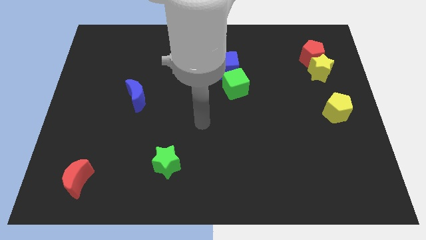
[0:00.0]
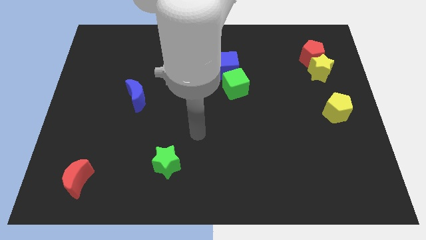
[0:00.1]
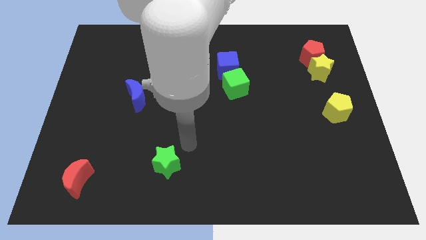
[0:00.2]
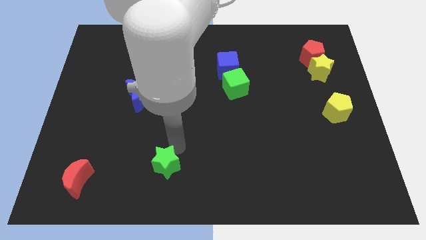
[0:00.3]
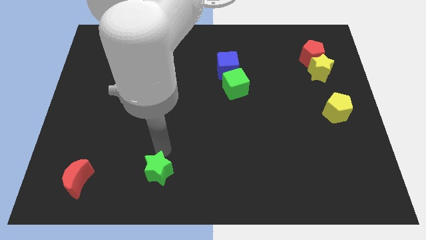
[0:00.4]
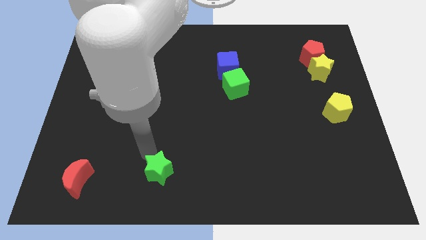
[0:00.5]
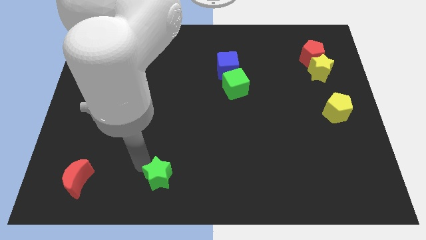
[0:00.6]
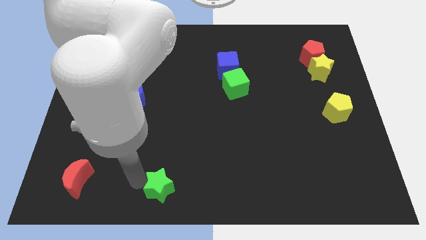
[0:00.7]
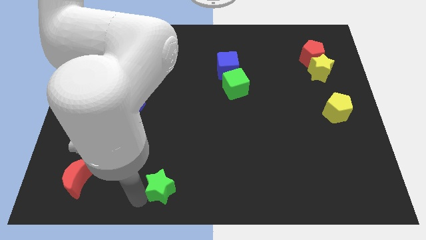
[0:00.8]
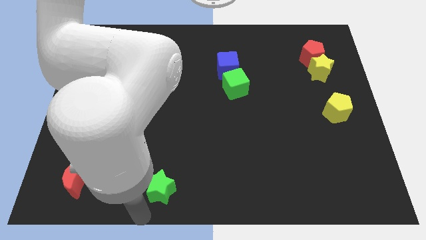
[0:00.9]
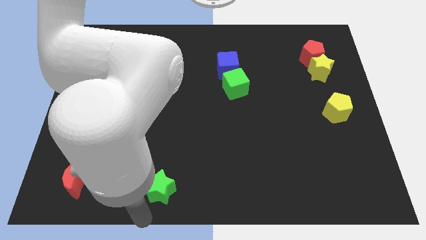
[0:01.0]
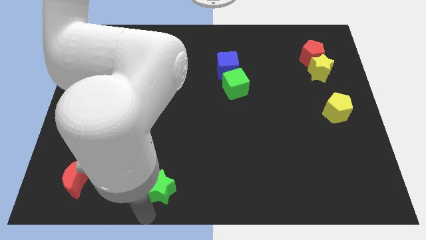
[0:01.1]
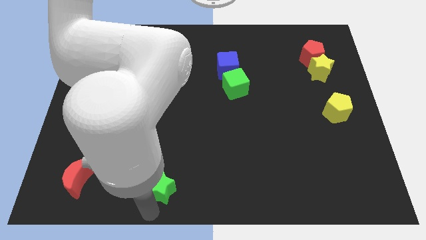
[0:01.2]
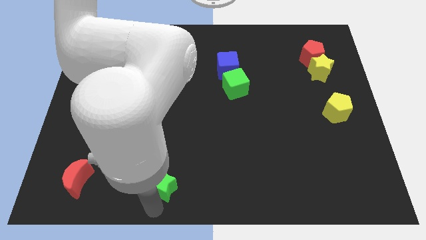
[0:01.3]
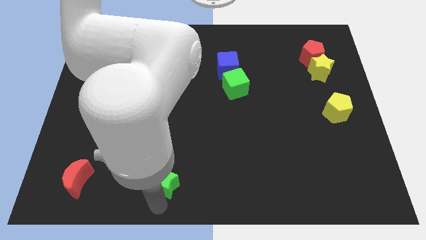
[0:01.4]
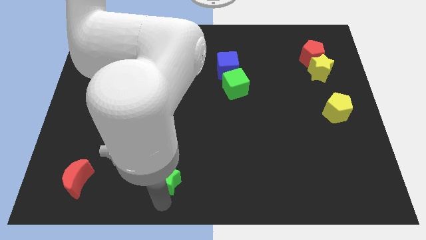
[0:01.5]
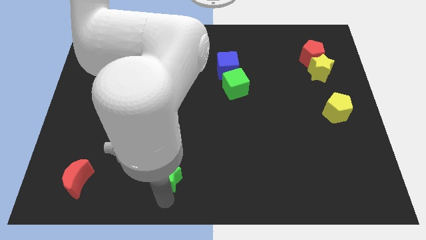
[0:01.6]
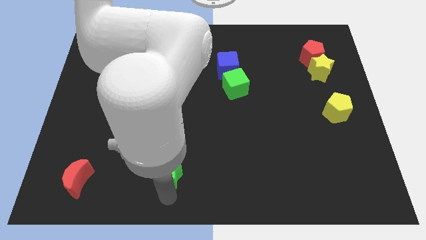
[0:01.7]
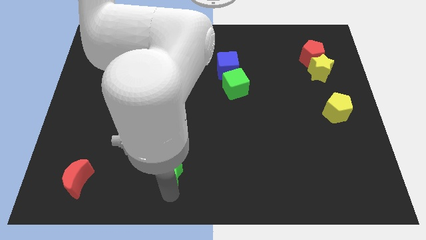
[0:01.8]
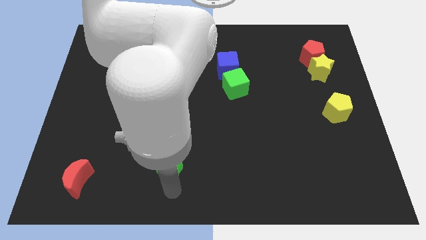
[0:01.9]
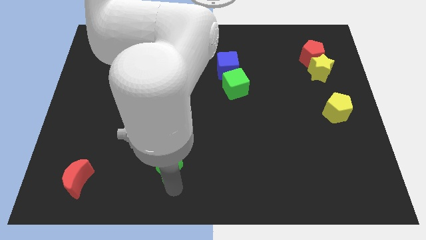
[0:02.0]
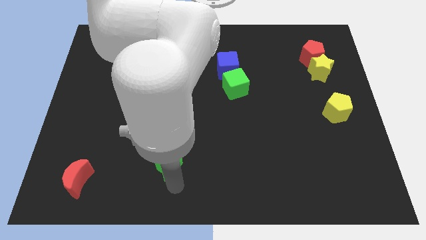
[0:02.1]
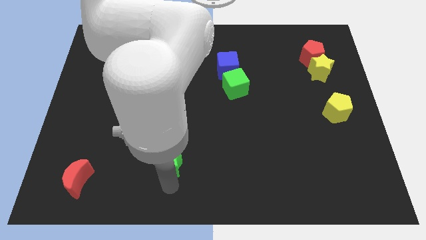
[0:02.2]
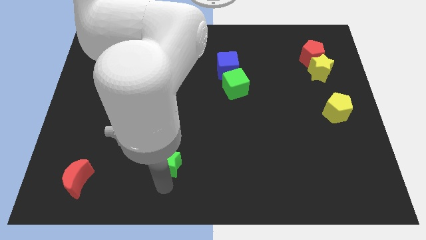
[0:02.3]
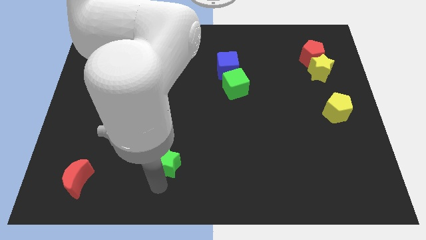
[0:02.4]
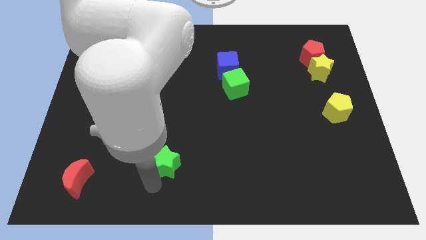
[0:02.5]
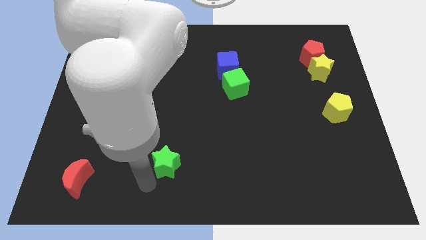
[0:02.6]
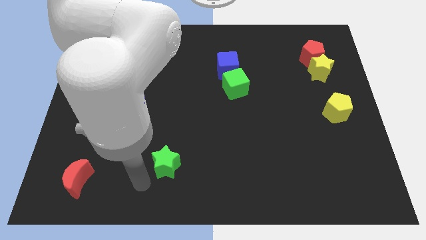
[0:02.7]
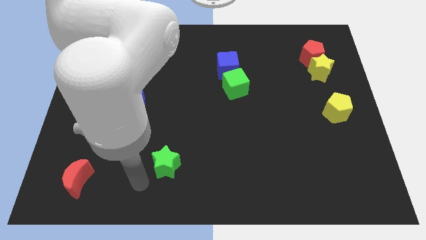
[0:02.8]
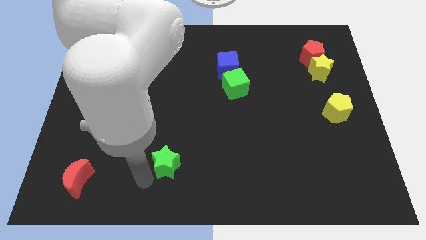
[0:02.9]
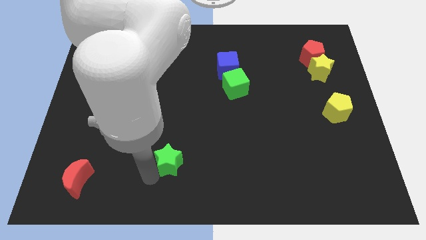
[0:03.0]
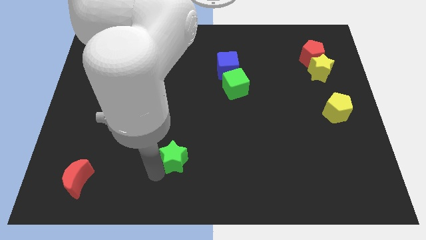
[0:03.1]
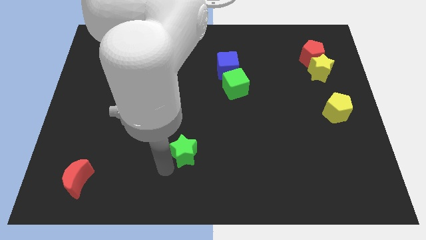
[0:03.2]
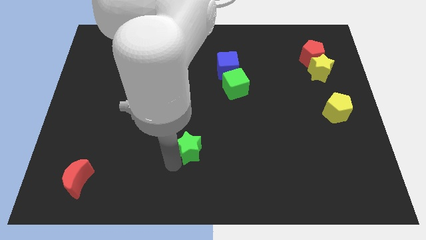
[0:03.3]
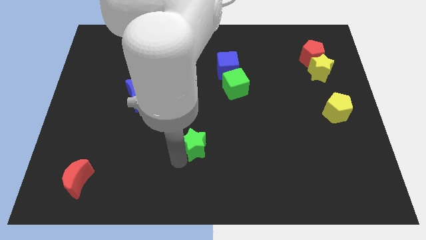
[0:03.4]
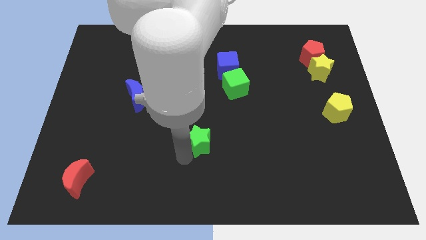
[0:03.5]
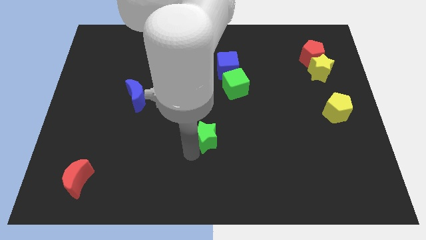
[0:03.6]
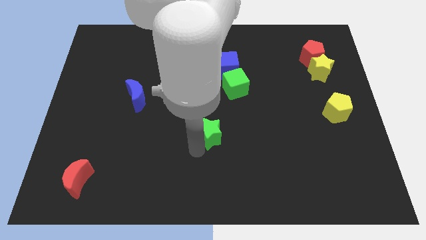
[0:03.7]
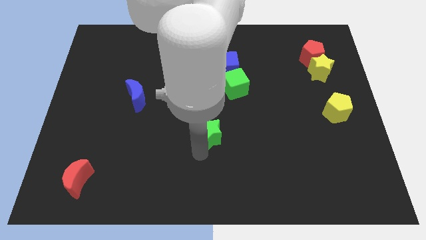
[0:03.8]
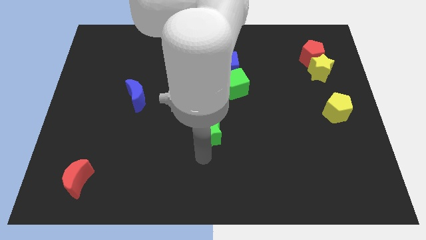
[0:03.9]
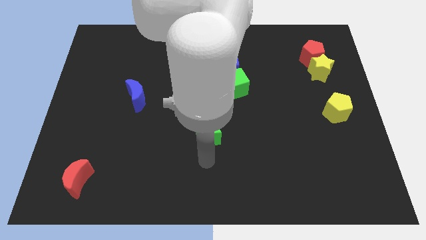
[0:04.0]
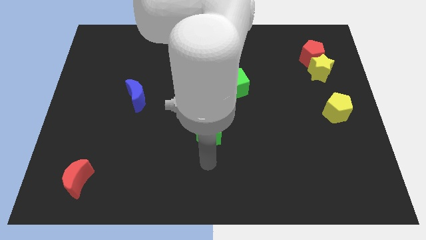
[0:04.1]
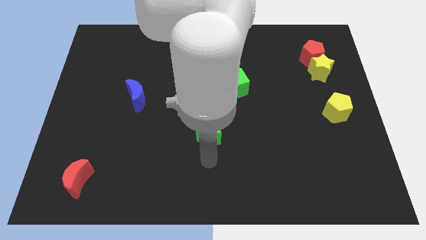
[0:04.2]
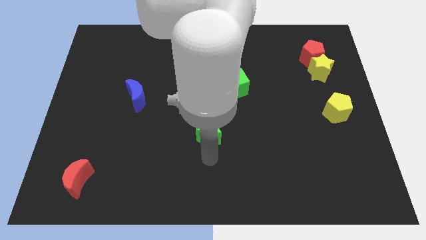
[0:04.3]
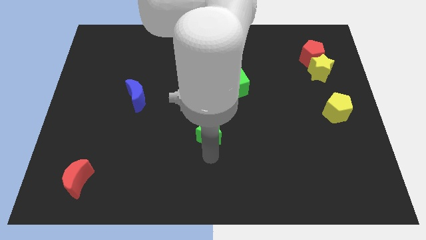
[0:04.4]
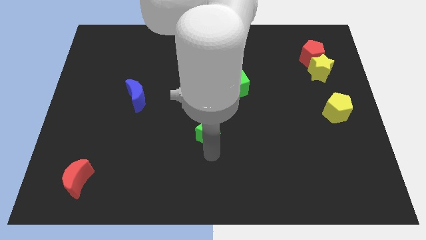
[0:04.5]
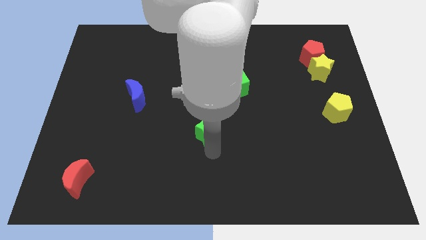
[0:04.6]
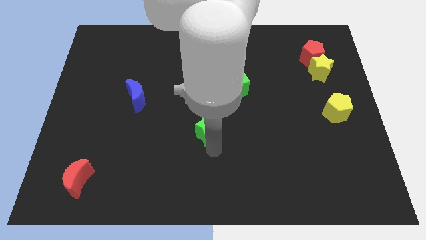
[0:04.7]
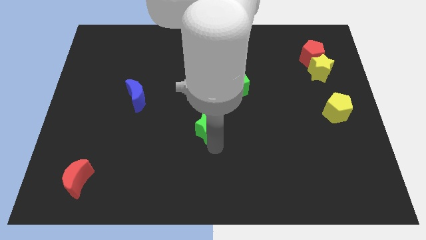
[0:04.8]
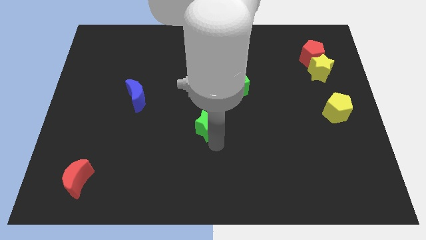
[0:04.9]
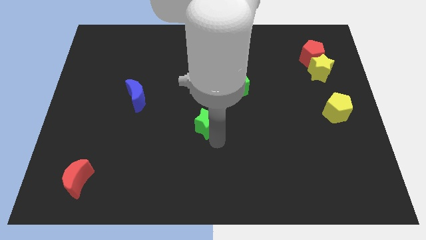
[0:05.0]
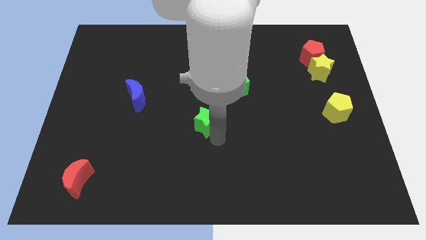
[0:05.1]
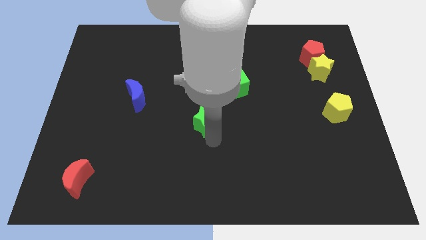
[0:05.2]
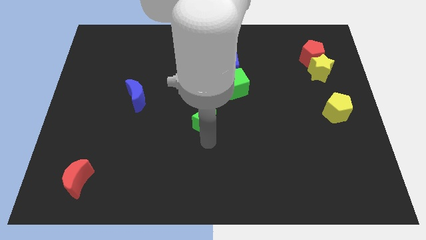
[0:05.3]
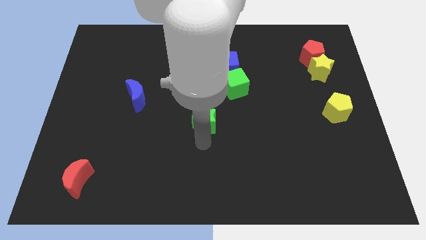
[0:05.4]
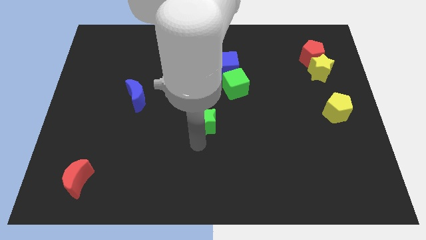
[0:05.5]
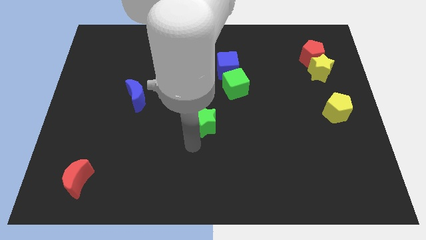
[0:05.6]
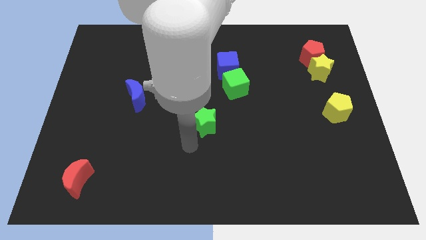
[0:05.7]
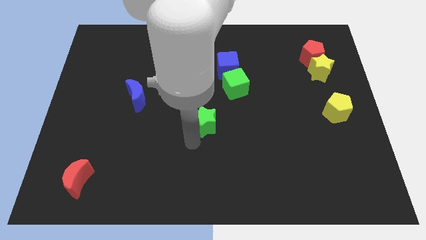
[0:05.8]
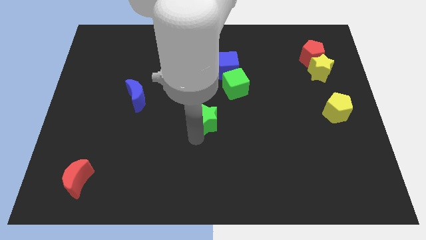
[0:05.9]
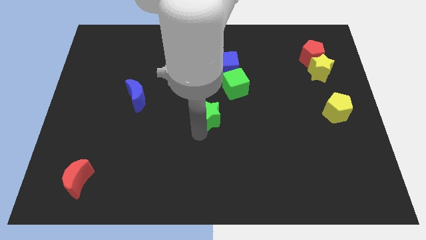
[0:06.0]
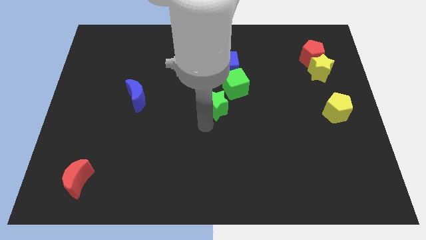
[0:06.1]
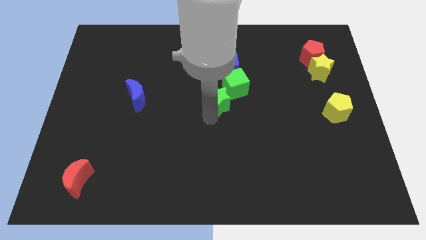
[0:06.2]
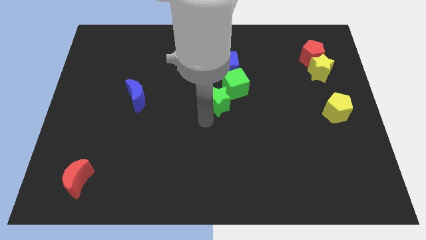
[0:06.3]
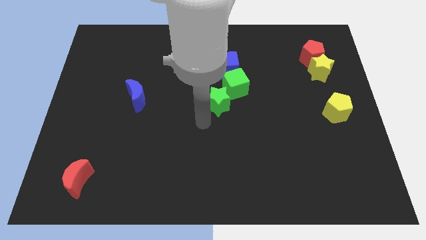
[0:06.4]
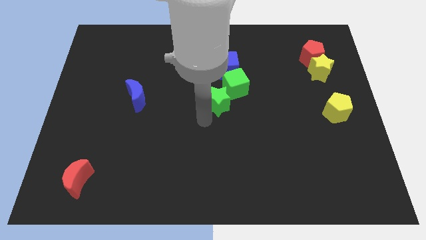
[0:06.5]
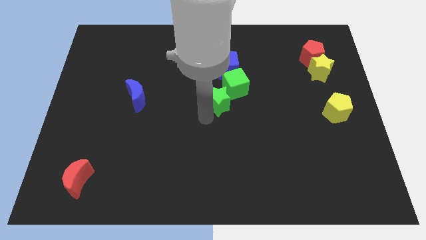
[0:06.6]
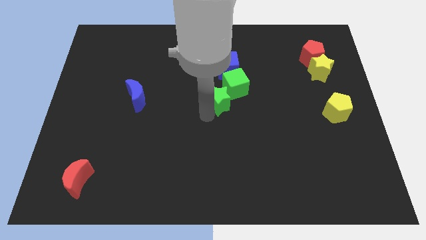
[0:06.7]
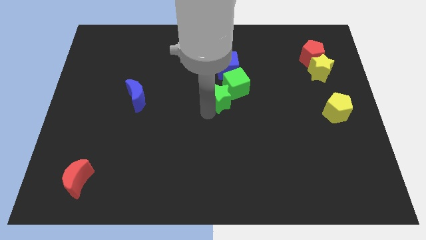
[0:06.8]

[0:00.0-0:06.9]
move the green star close to the green cube
